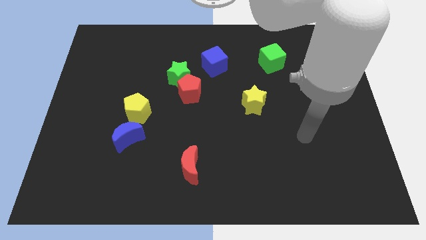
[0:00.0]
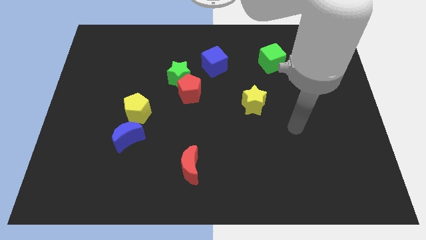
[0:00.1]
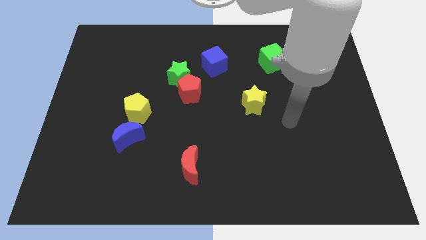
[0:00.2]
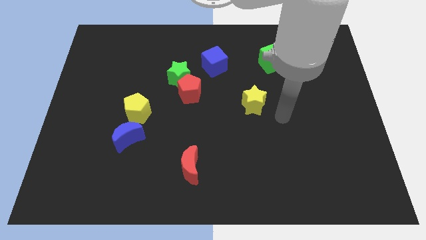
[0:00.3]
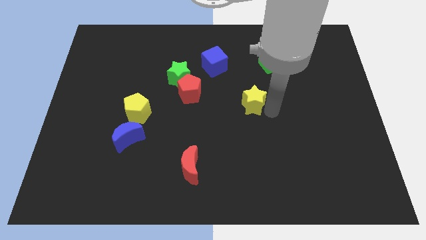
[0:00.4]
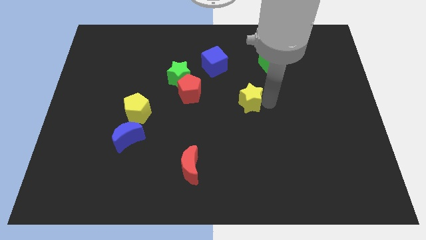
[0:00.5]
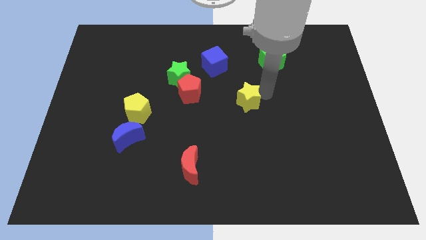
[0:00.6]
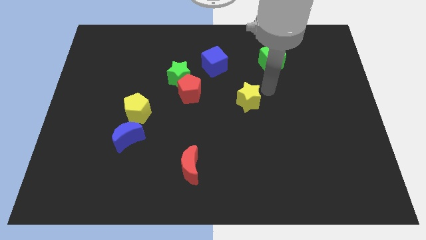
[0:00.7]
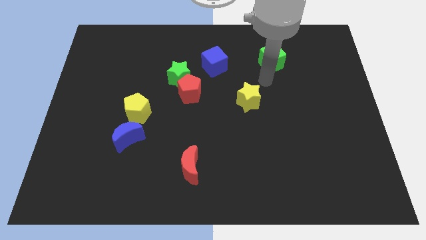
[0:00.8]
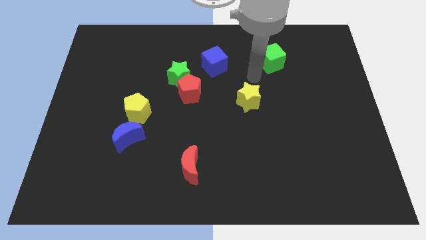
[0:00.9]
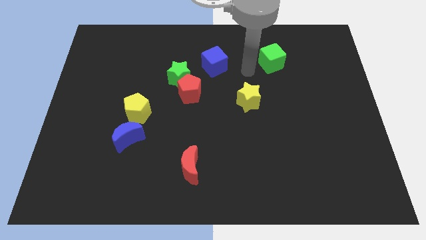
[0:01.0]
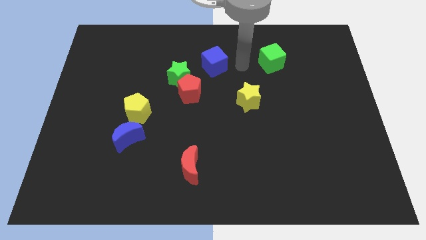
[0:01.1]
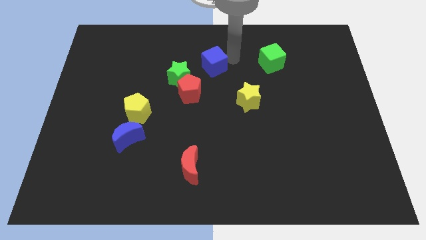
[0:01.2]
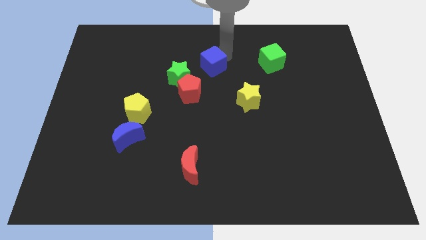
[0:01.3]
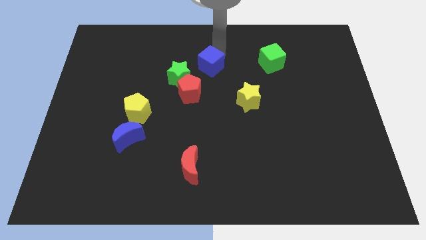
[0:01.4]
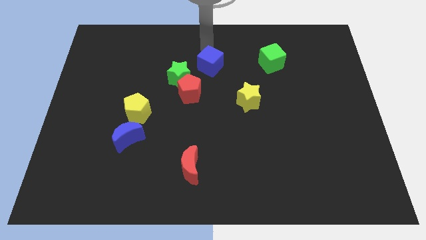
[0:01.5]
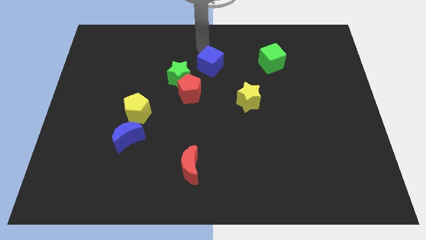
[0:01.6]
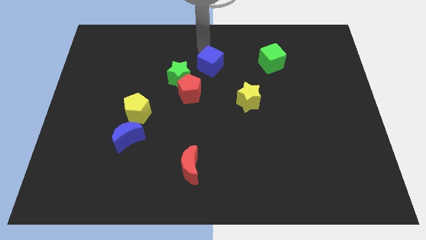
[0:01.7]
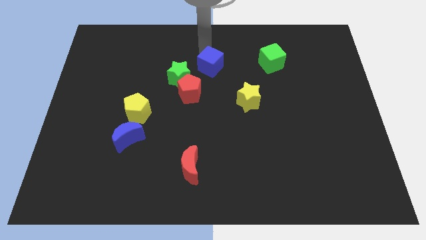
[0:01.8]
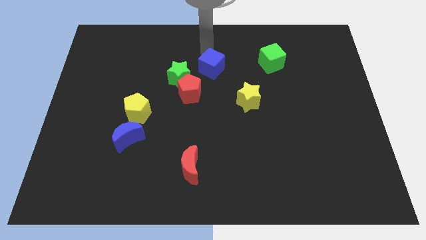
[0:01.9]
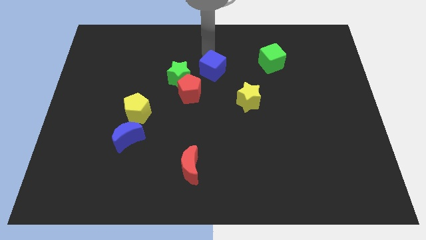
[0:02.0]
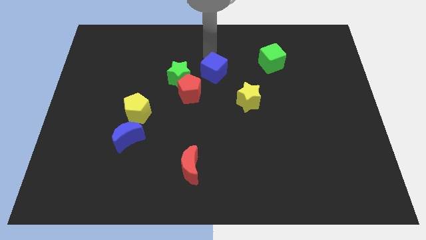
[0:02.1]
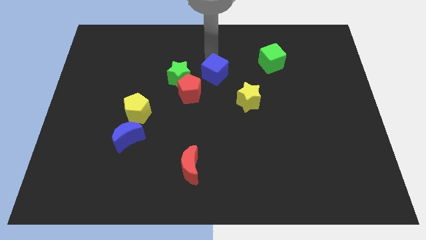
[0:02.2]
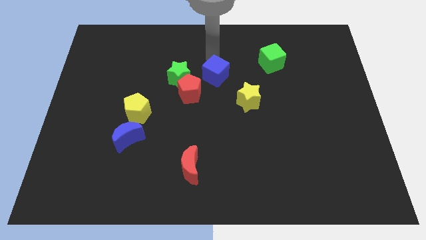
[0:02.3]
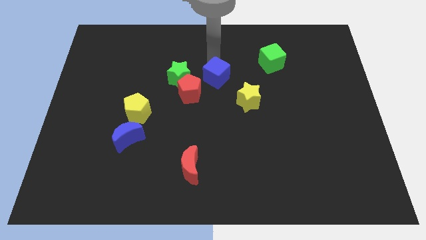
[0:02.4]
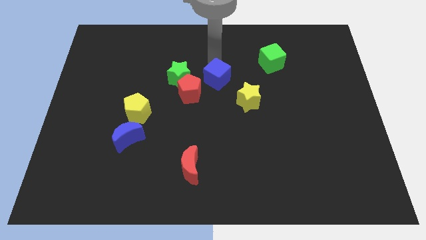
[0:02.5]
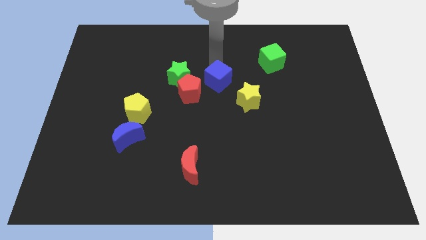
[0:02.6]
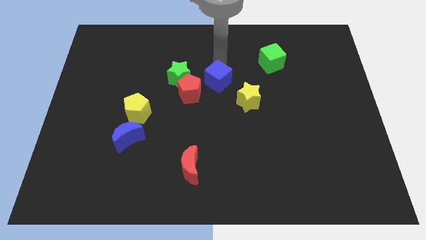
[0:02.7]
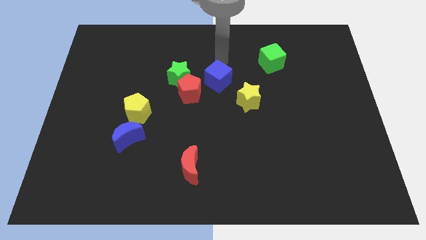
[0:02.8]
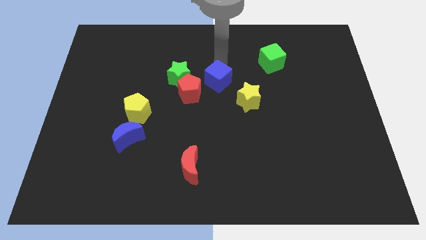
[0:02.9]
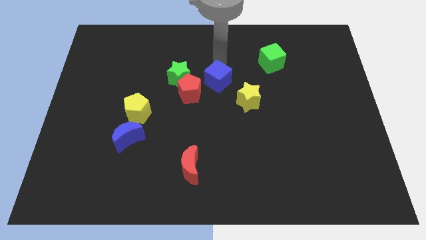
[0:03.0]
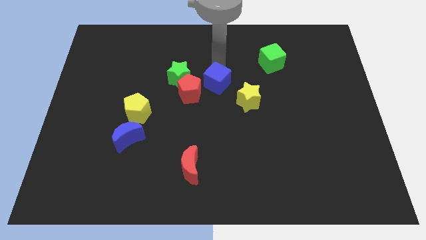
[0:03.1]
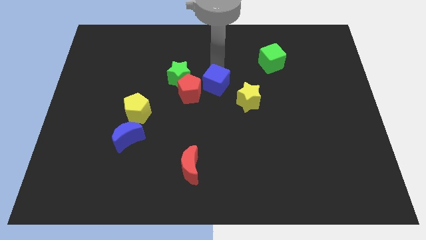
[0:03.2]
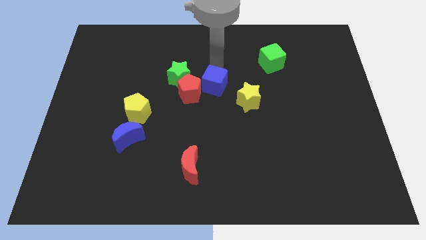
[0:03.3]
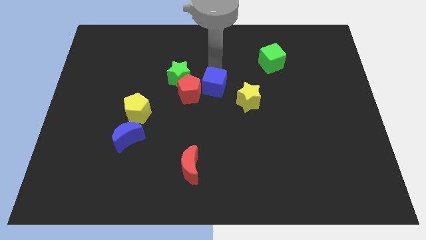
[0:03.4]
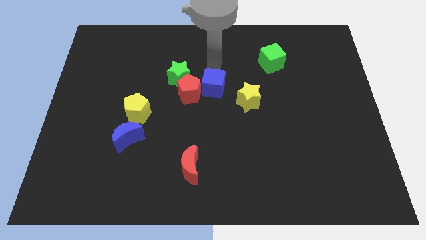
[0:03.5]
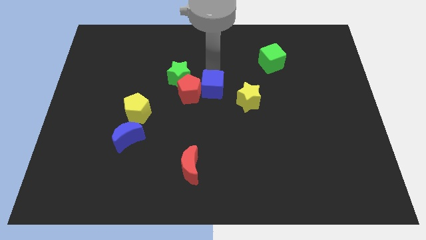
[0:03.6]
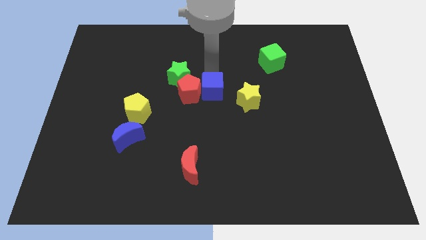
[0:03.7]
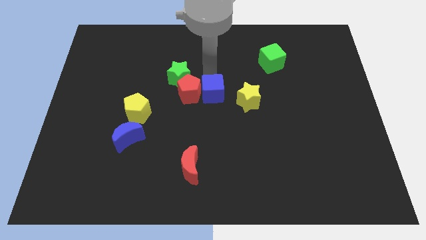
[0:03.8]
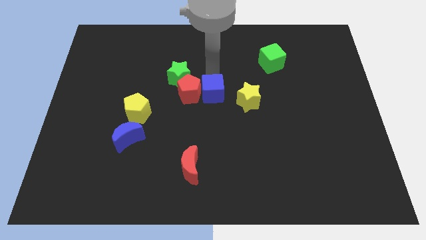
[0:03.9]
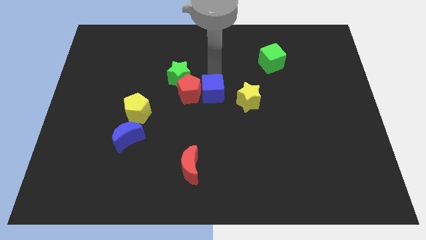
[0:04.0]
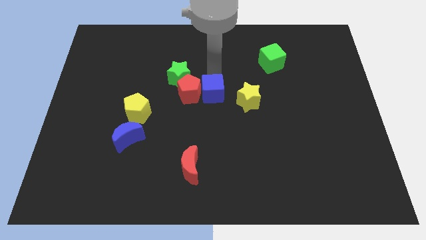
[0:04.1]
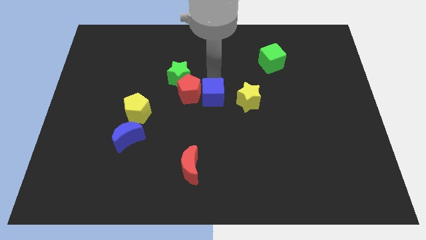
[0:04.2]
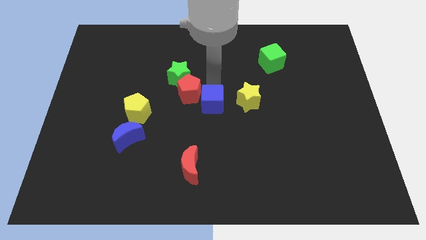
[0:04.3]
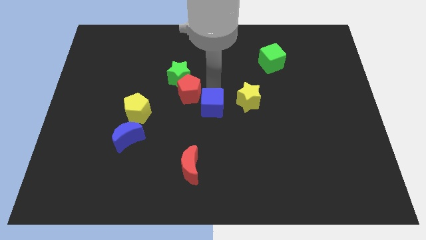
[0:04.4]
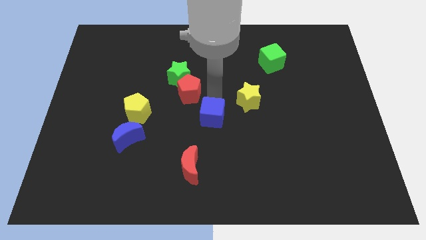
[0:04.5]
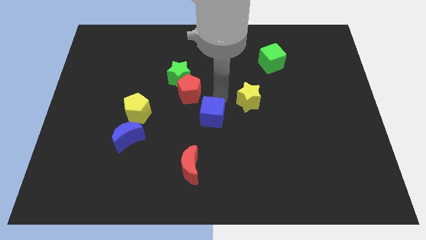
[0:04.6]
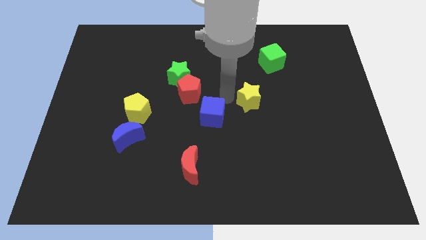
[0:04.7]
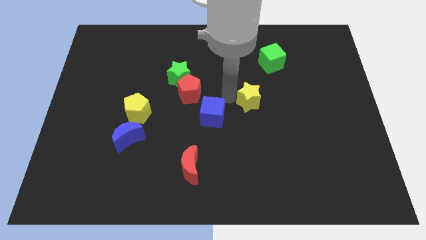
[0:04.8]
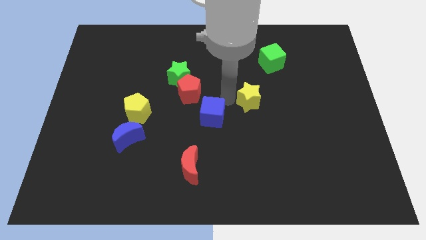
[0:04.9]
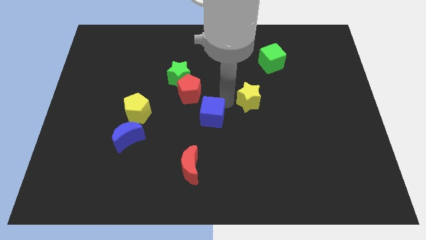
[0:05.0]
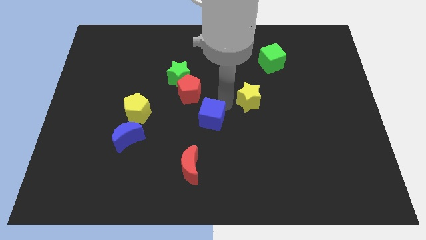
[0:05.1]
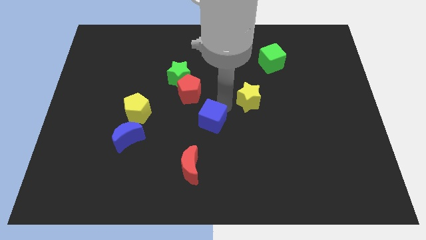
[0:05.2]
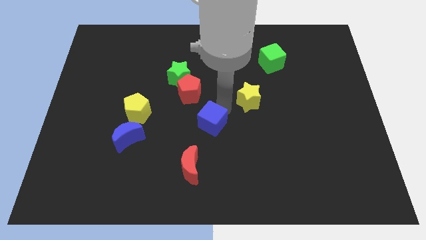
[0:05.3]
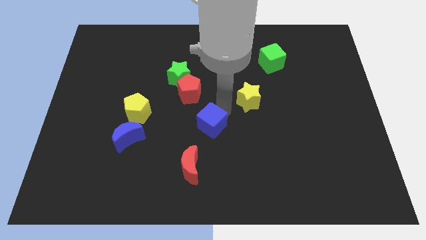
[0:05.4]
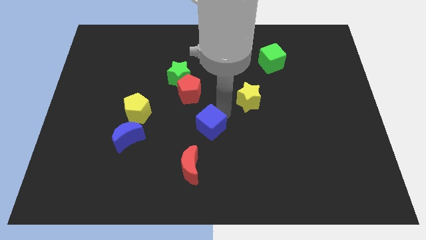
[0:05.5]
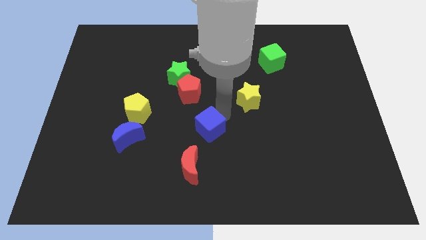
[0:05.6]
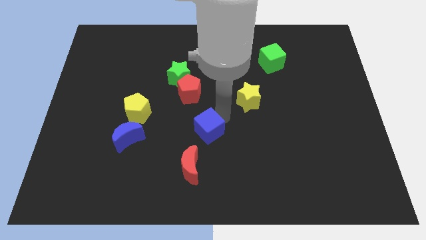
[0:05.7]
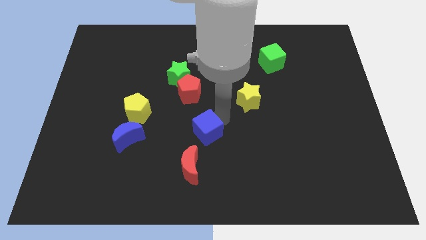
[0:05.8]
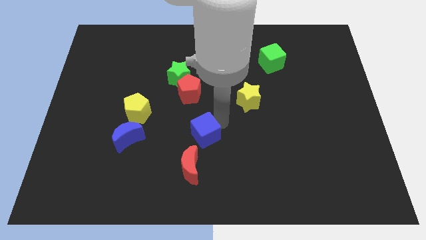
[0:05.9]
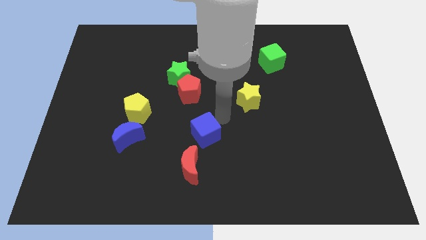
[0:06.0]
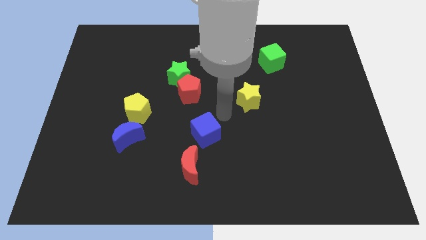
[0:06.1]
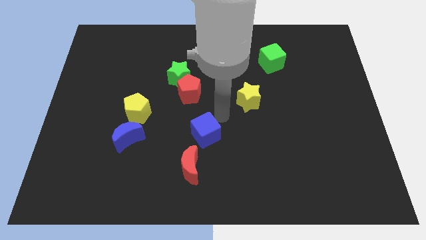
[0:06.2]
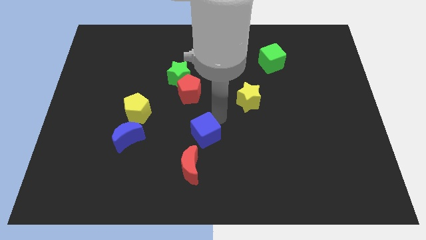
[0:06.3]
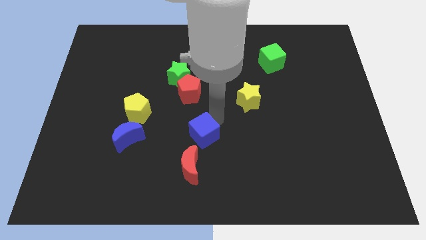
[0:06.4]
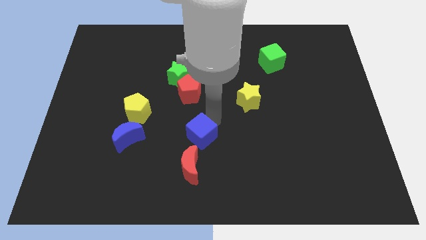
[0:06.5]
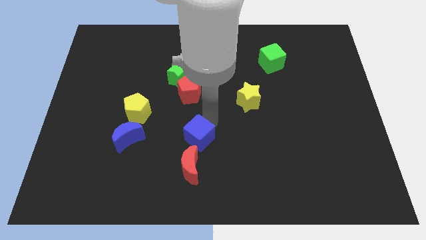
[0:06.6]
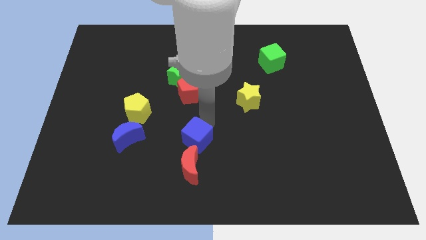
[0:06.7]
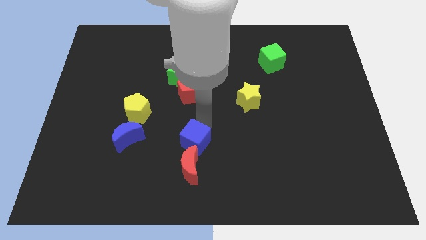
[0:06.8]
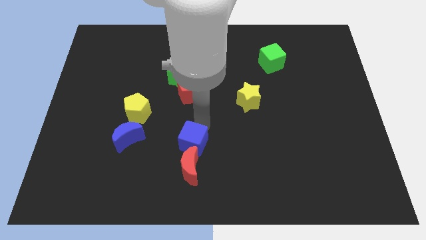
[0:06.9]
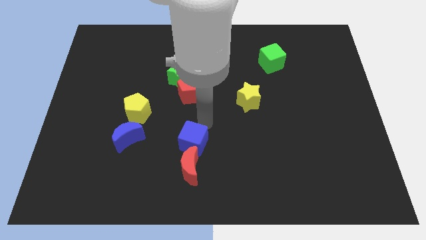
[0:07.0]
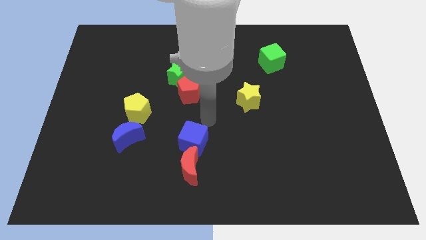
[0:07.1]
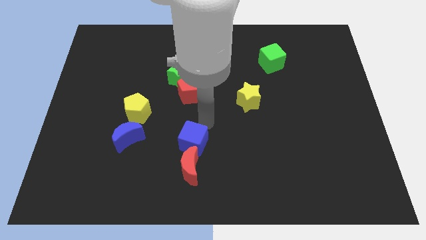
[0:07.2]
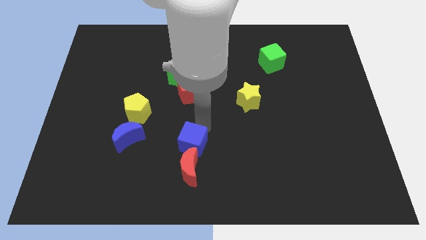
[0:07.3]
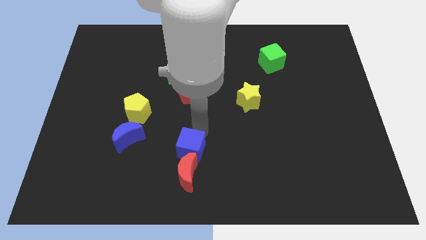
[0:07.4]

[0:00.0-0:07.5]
move the blue cube next to the red moon

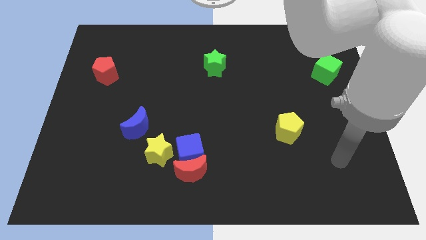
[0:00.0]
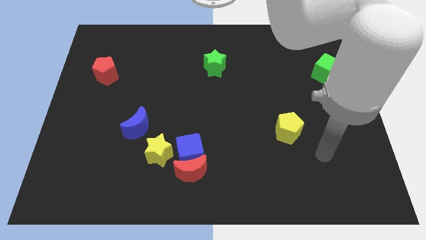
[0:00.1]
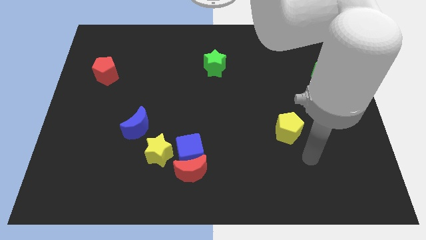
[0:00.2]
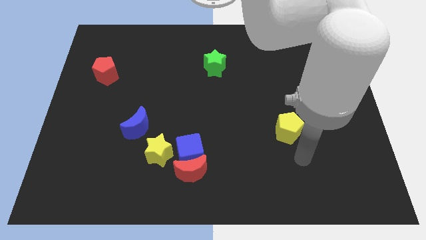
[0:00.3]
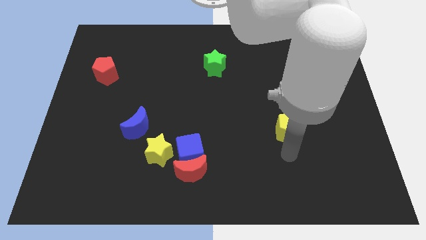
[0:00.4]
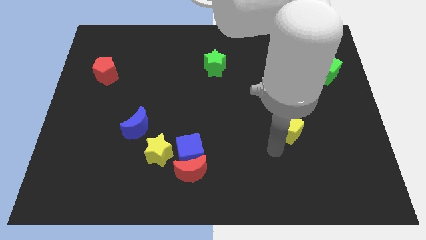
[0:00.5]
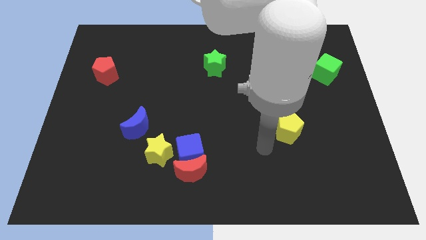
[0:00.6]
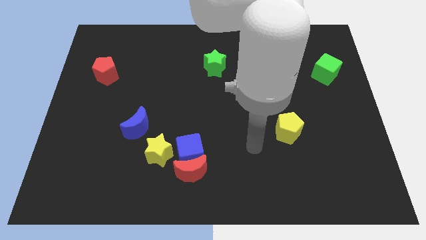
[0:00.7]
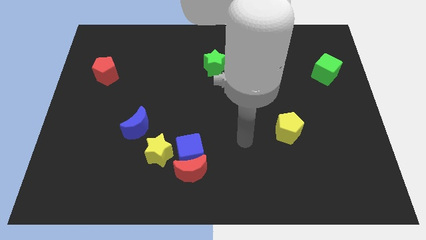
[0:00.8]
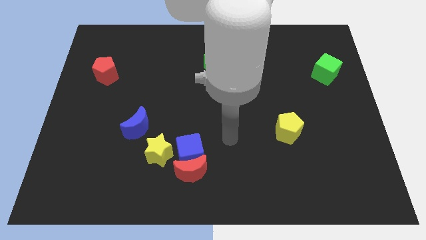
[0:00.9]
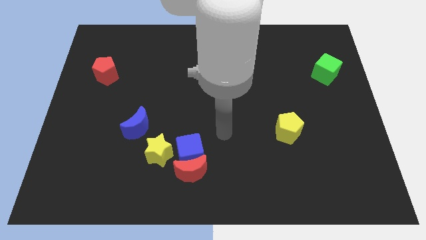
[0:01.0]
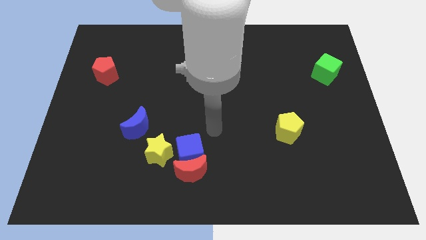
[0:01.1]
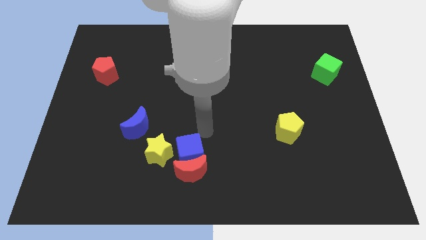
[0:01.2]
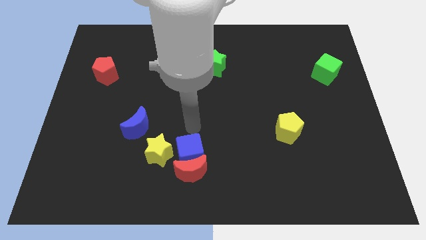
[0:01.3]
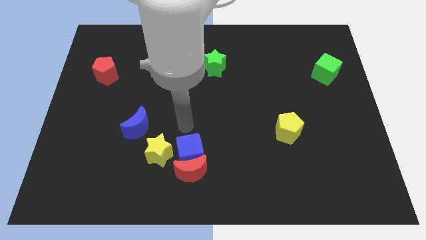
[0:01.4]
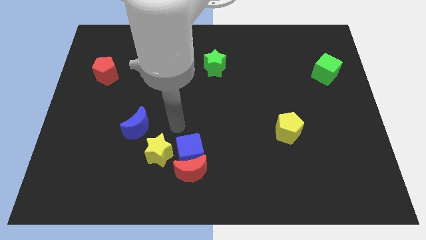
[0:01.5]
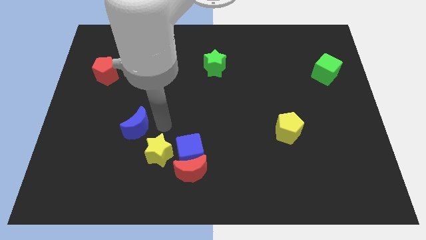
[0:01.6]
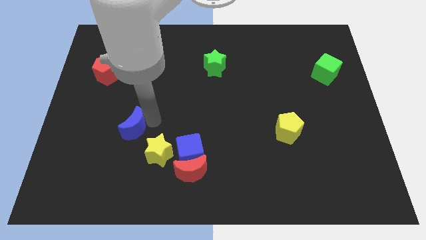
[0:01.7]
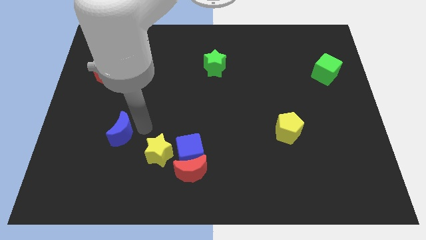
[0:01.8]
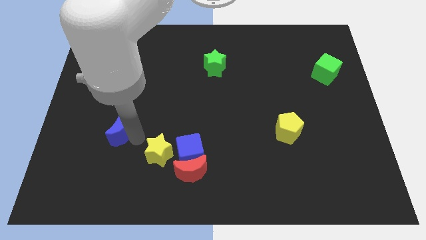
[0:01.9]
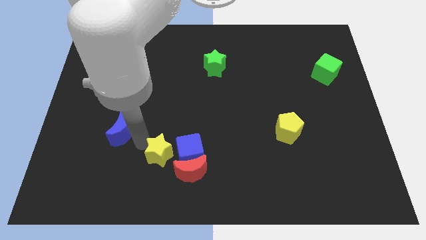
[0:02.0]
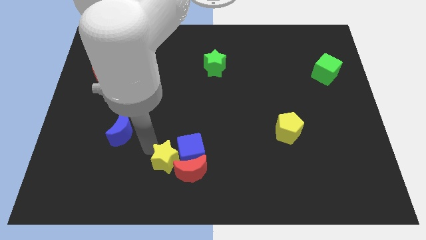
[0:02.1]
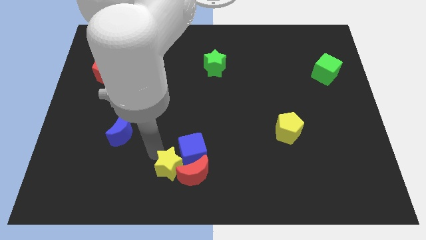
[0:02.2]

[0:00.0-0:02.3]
put the yellow star close to the red moon
